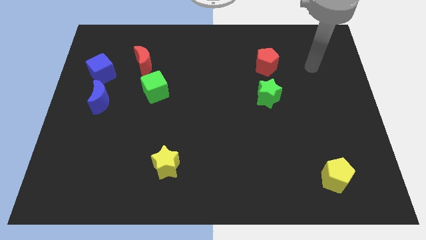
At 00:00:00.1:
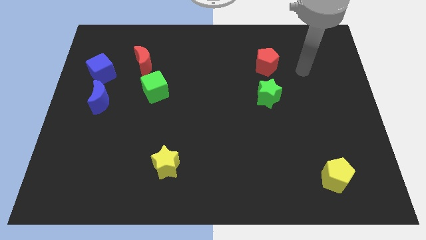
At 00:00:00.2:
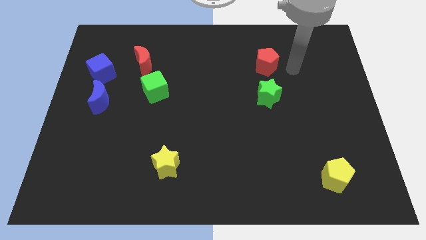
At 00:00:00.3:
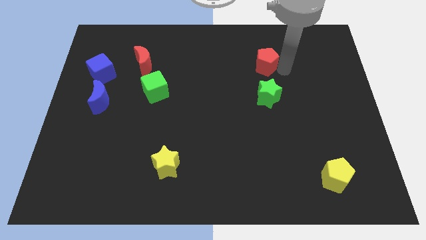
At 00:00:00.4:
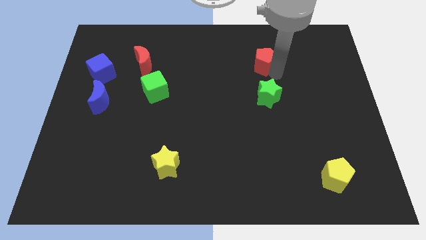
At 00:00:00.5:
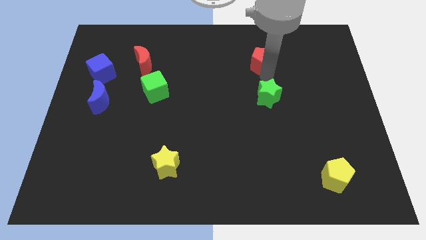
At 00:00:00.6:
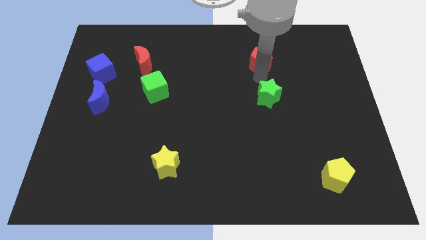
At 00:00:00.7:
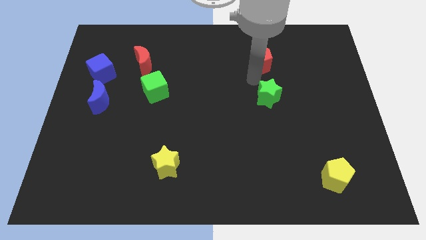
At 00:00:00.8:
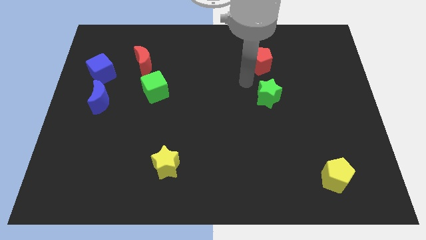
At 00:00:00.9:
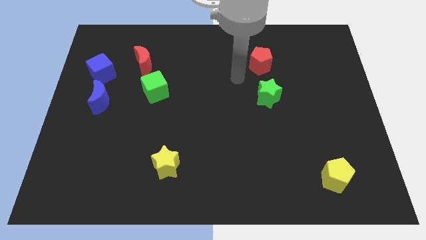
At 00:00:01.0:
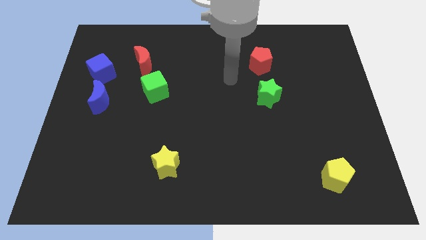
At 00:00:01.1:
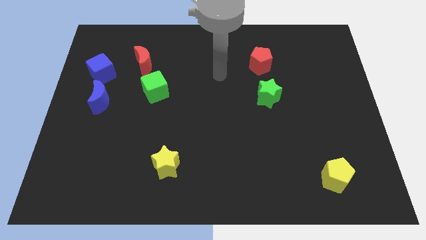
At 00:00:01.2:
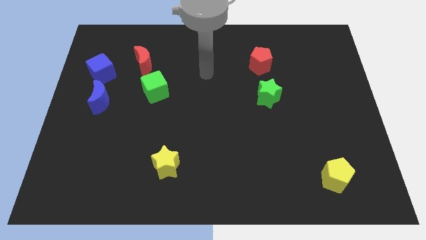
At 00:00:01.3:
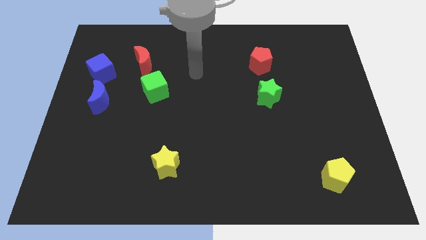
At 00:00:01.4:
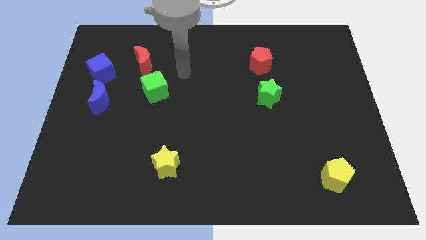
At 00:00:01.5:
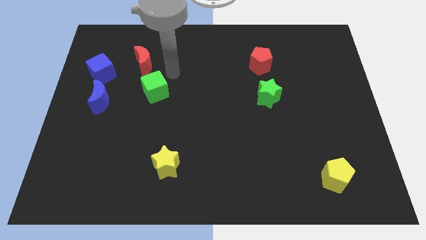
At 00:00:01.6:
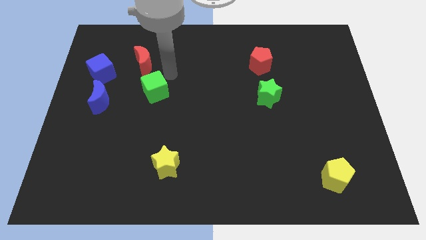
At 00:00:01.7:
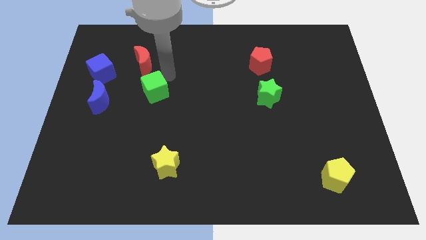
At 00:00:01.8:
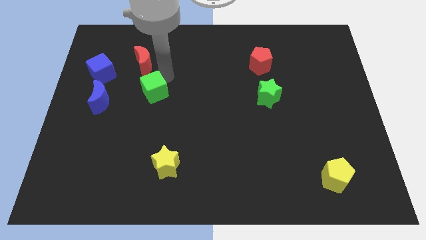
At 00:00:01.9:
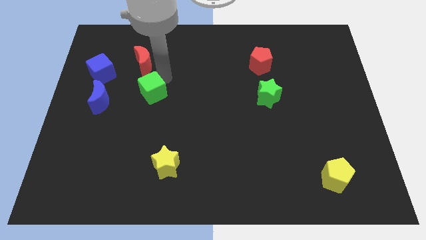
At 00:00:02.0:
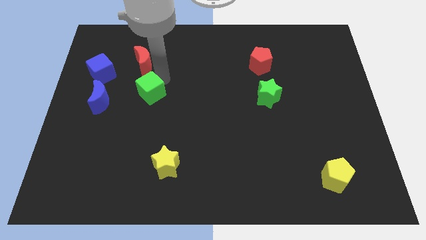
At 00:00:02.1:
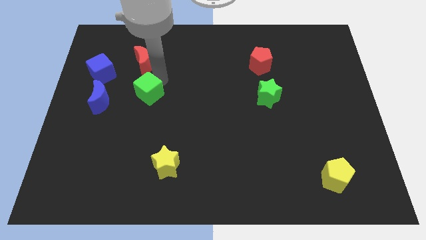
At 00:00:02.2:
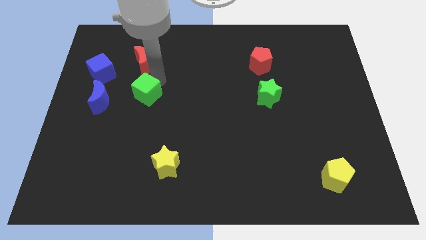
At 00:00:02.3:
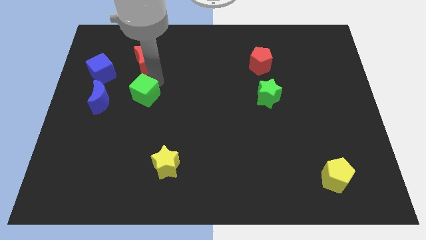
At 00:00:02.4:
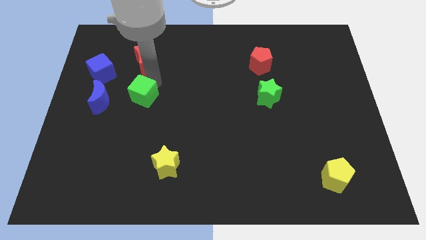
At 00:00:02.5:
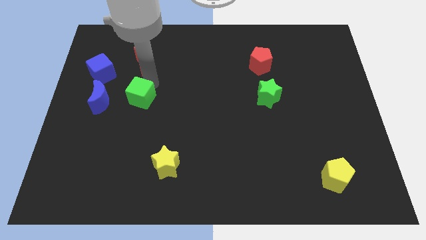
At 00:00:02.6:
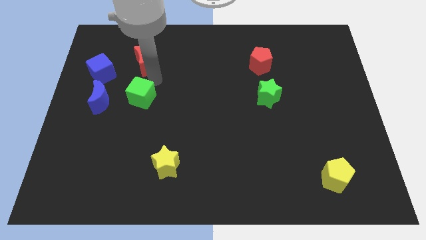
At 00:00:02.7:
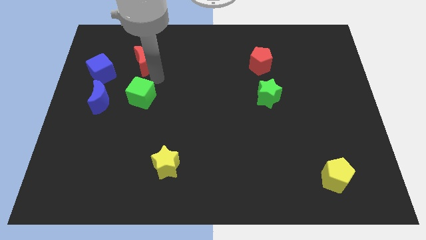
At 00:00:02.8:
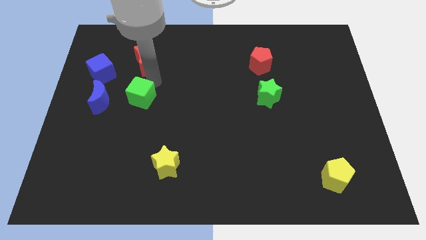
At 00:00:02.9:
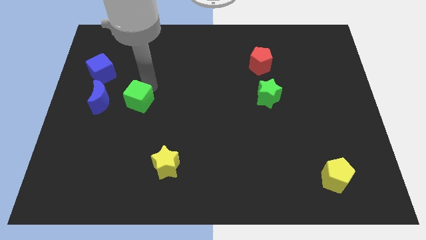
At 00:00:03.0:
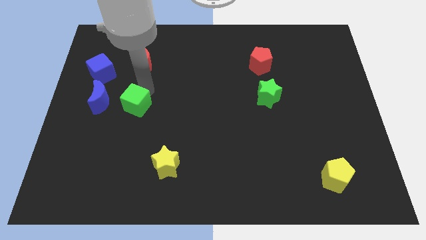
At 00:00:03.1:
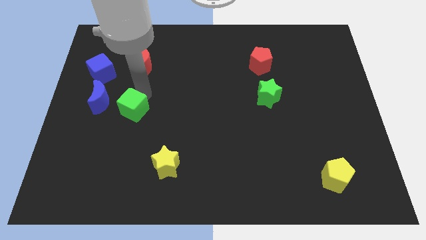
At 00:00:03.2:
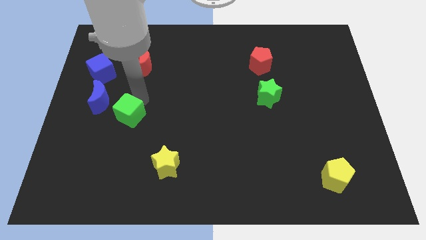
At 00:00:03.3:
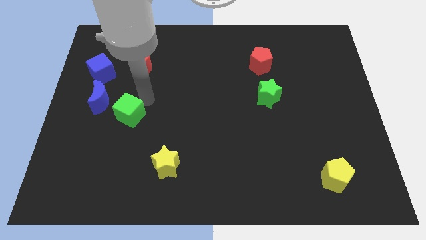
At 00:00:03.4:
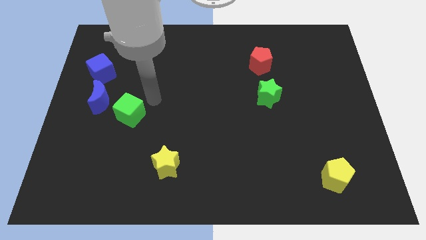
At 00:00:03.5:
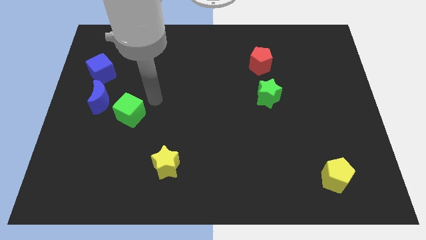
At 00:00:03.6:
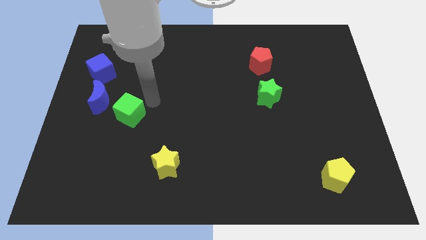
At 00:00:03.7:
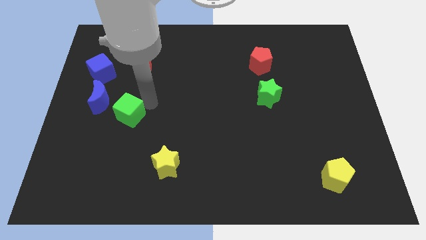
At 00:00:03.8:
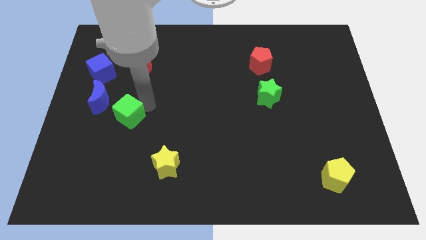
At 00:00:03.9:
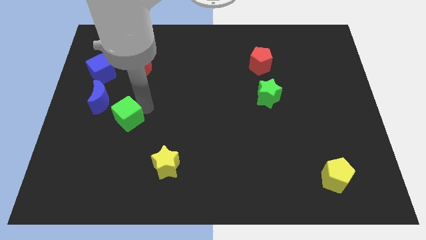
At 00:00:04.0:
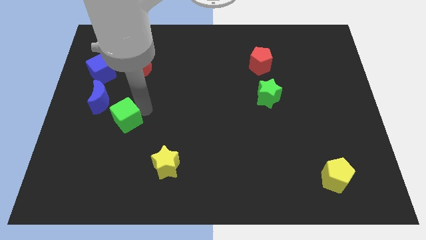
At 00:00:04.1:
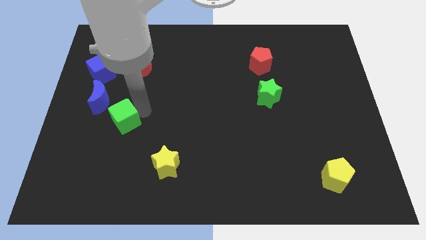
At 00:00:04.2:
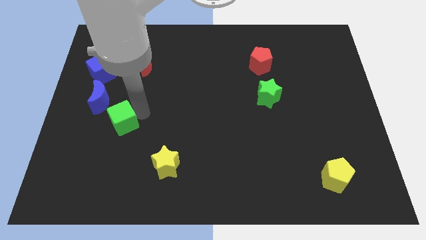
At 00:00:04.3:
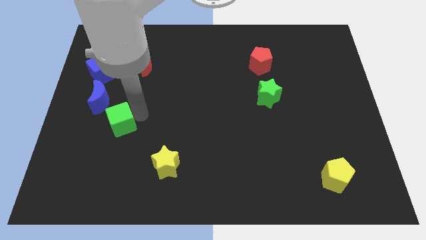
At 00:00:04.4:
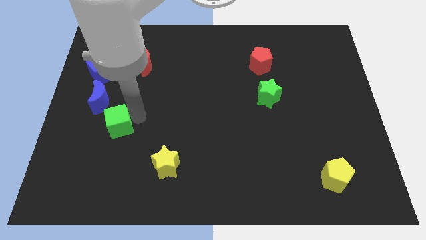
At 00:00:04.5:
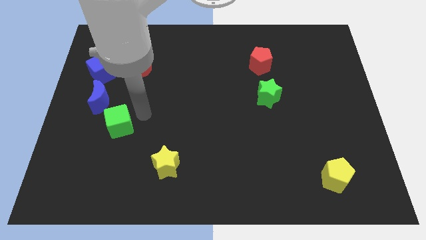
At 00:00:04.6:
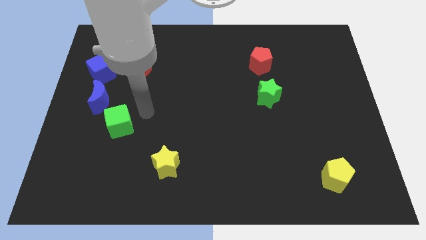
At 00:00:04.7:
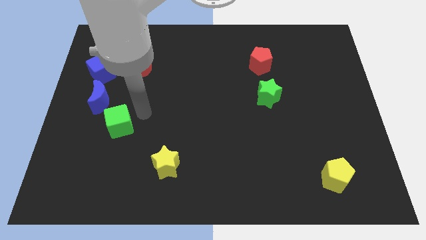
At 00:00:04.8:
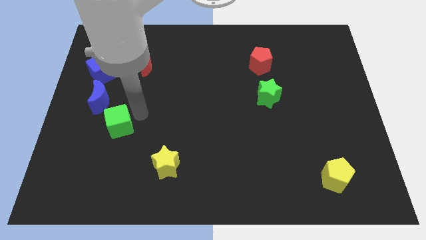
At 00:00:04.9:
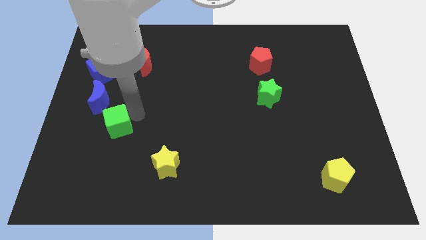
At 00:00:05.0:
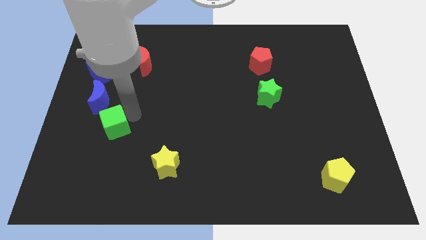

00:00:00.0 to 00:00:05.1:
move the green cube to the bottom of the blue moon

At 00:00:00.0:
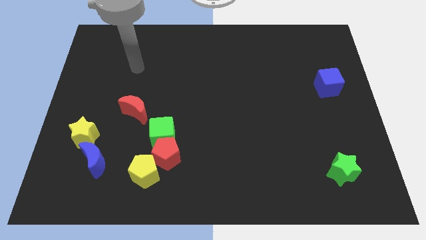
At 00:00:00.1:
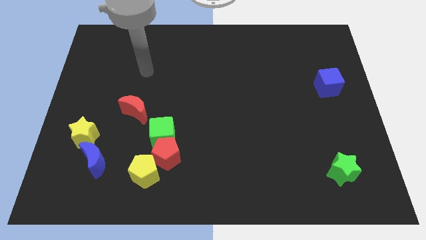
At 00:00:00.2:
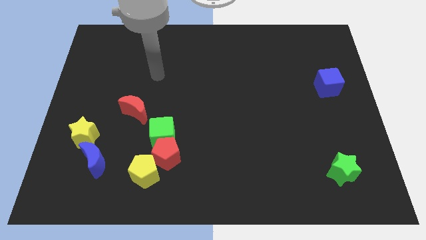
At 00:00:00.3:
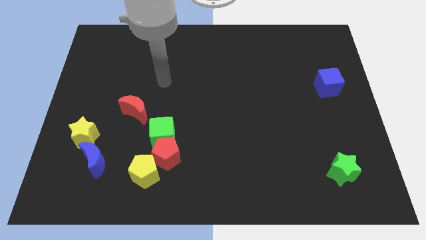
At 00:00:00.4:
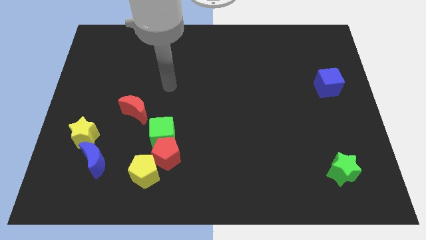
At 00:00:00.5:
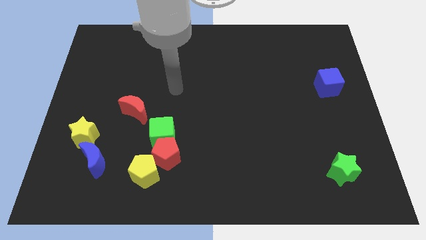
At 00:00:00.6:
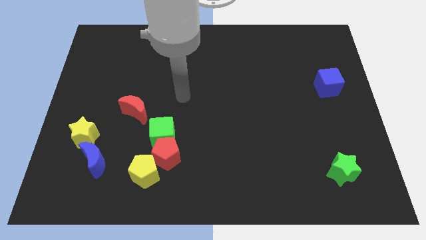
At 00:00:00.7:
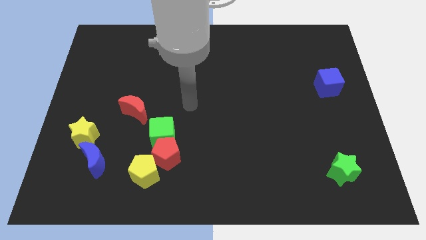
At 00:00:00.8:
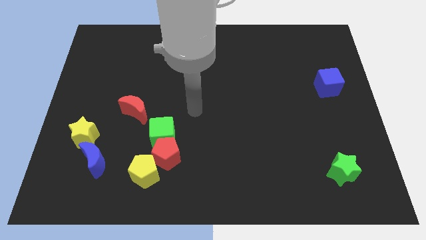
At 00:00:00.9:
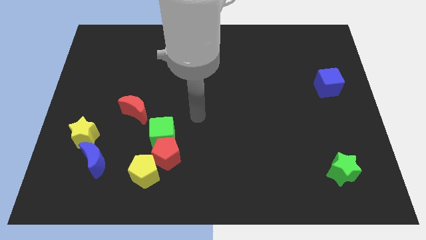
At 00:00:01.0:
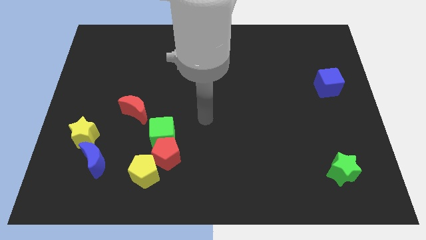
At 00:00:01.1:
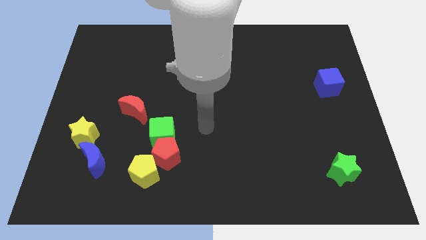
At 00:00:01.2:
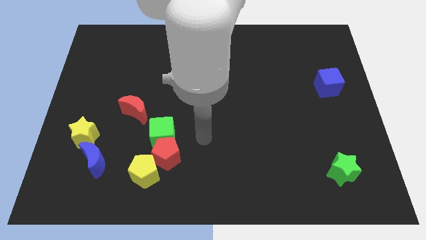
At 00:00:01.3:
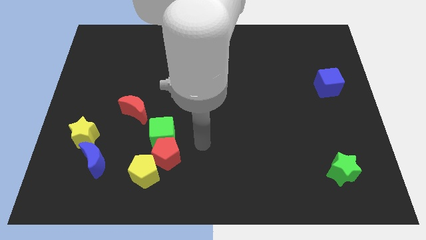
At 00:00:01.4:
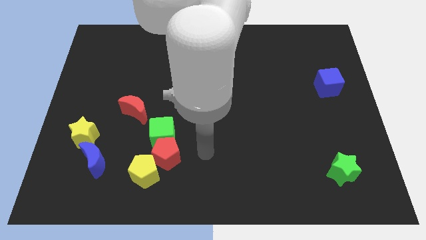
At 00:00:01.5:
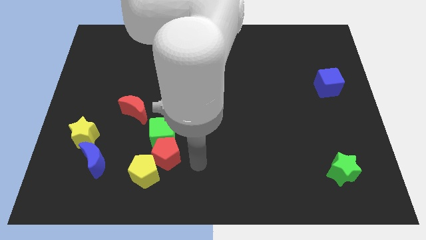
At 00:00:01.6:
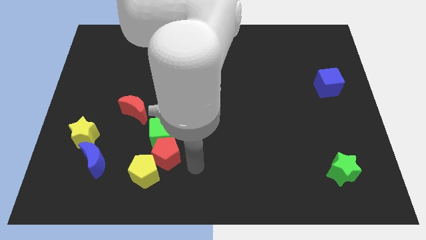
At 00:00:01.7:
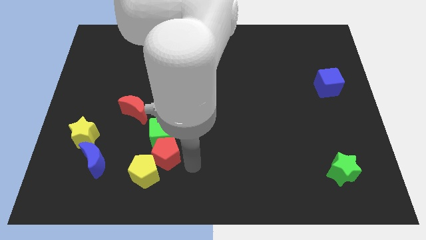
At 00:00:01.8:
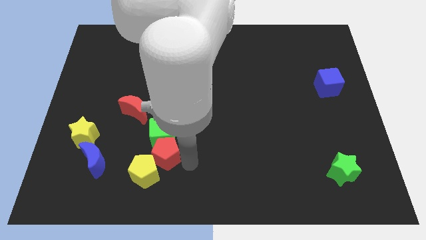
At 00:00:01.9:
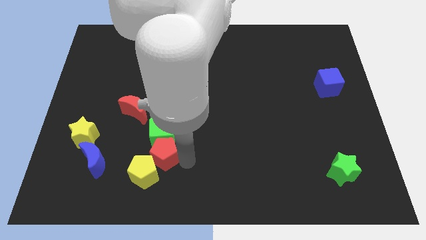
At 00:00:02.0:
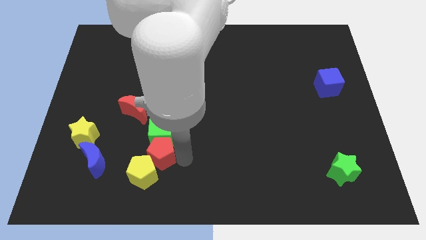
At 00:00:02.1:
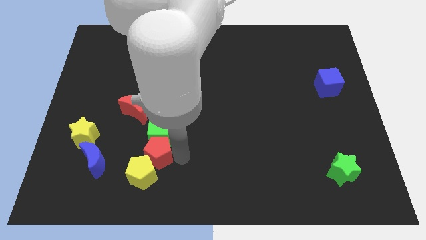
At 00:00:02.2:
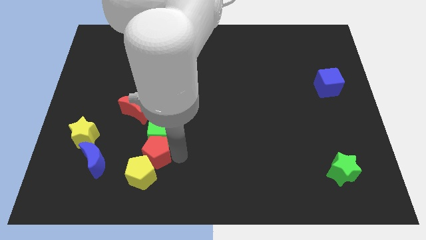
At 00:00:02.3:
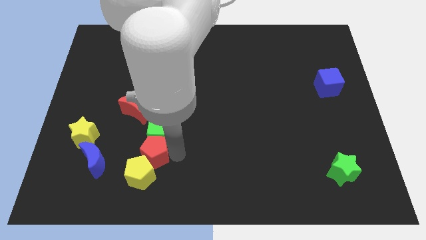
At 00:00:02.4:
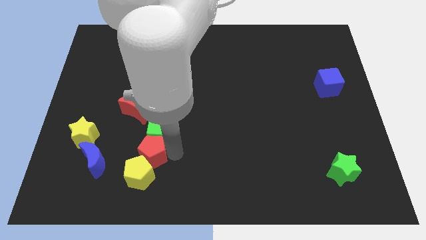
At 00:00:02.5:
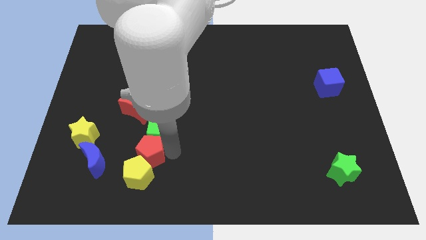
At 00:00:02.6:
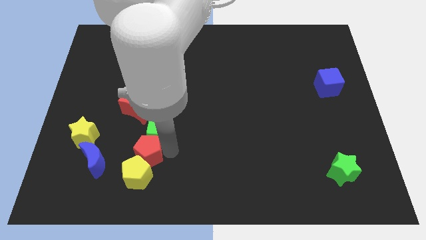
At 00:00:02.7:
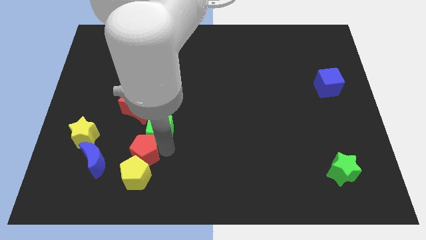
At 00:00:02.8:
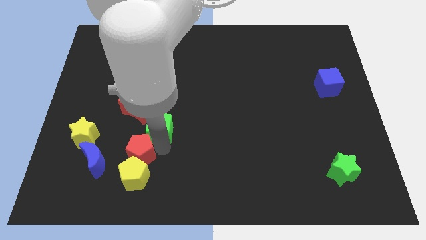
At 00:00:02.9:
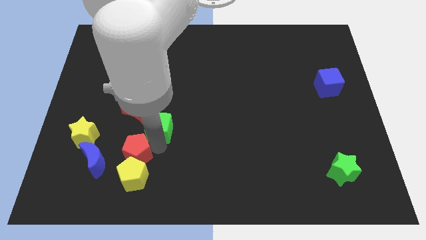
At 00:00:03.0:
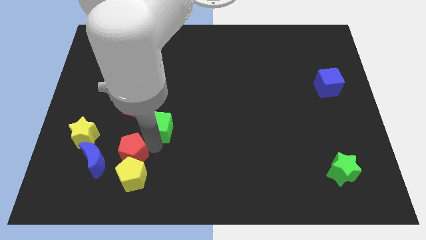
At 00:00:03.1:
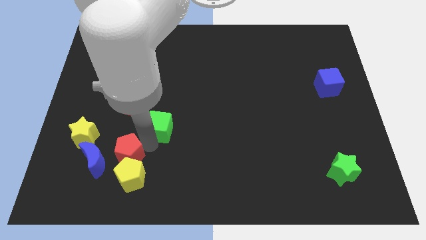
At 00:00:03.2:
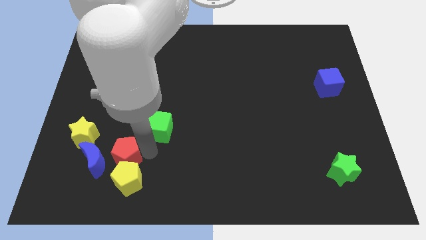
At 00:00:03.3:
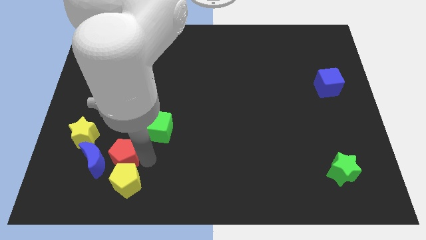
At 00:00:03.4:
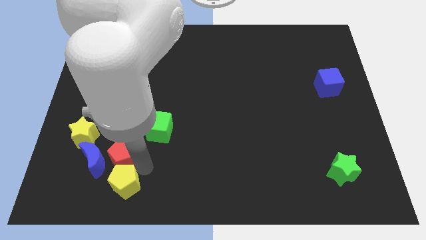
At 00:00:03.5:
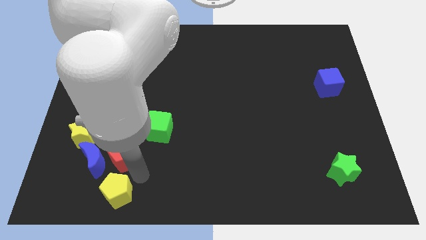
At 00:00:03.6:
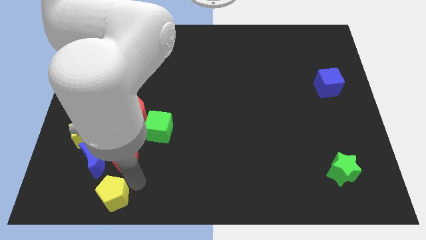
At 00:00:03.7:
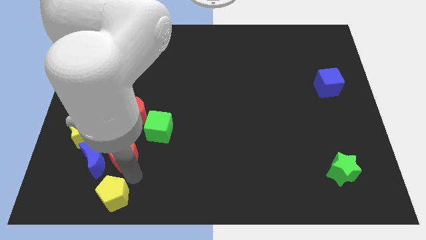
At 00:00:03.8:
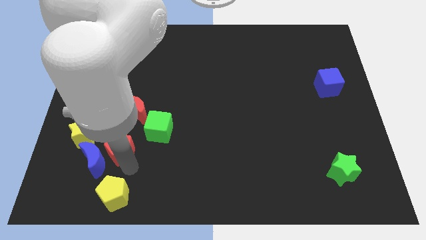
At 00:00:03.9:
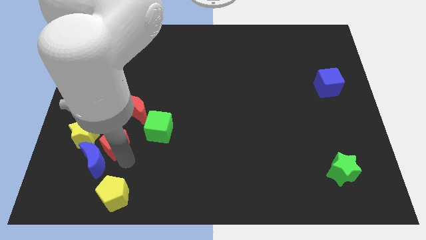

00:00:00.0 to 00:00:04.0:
move the red pentagon left of the green cube
